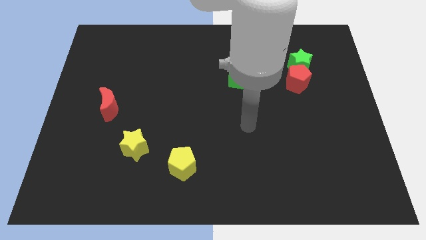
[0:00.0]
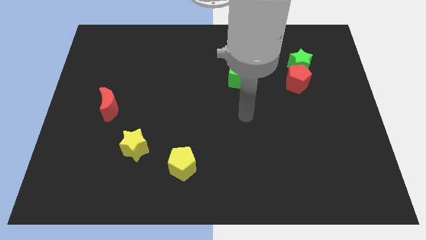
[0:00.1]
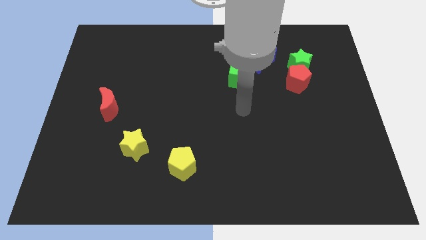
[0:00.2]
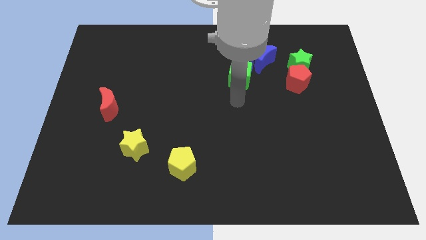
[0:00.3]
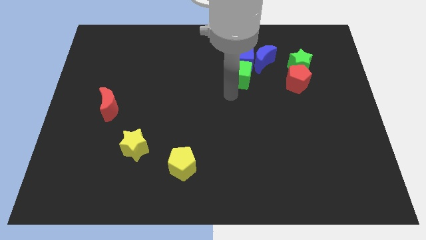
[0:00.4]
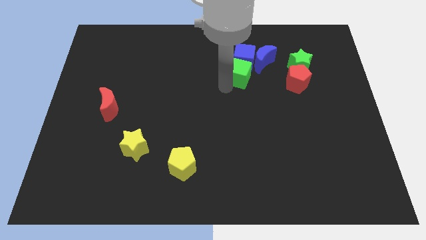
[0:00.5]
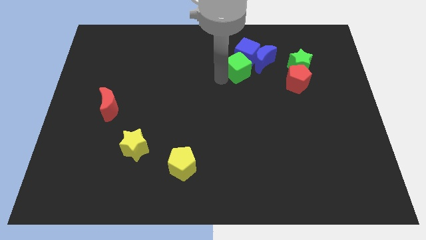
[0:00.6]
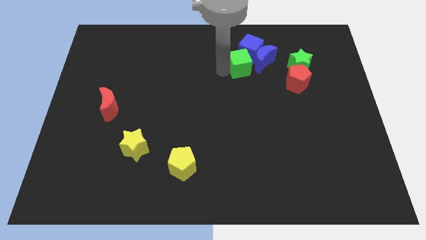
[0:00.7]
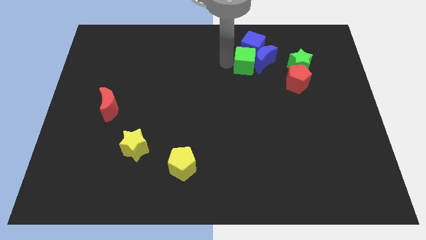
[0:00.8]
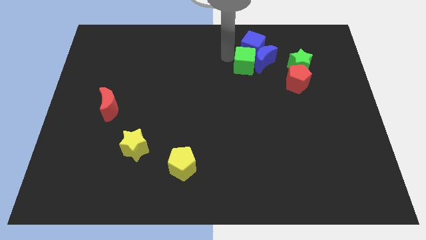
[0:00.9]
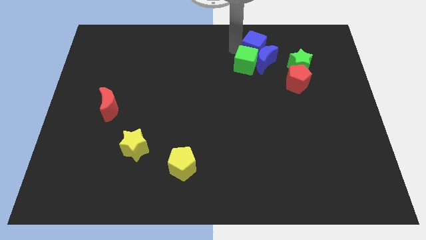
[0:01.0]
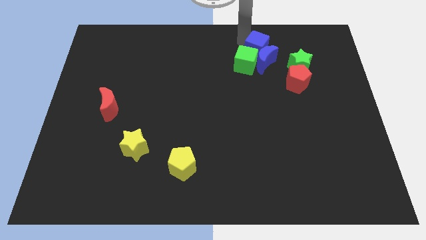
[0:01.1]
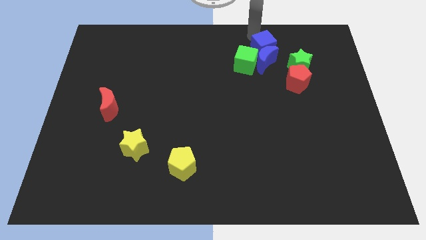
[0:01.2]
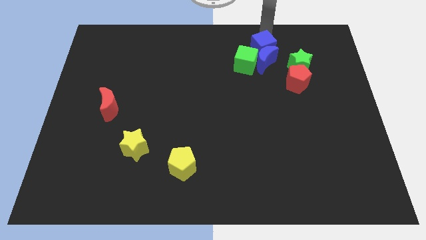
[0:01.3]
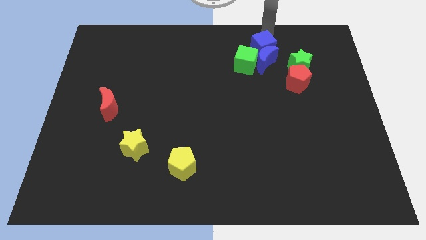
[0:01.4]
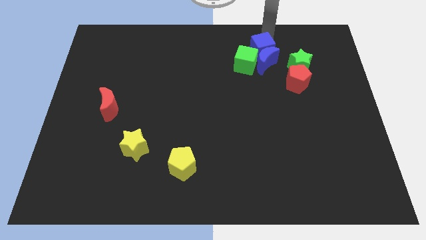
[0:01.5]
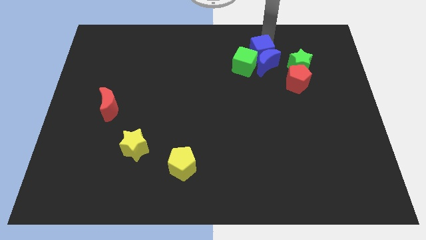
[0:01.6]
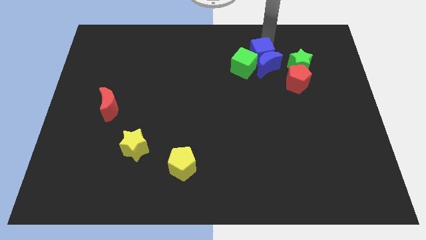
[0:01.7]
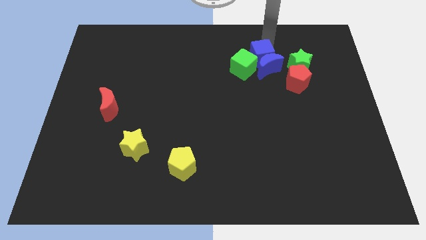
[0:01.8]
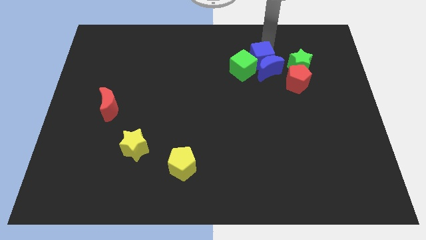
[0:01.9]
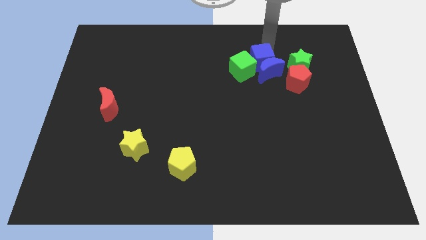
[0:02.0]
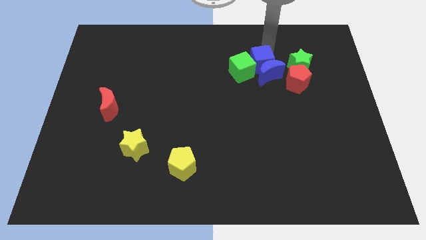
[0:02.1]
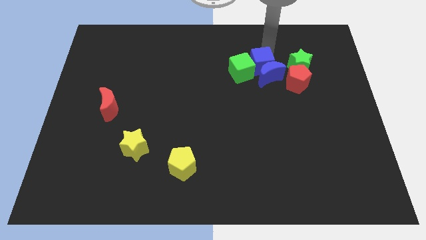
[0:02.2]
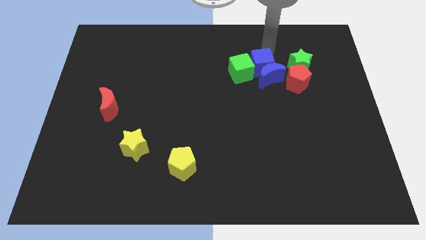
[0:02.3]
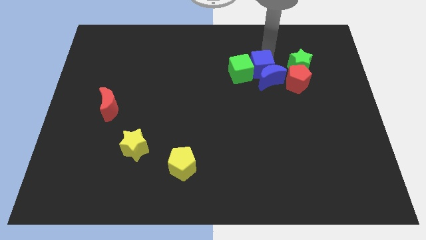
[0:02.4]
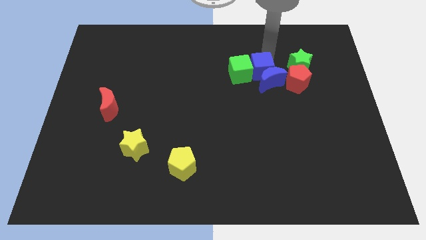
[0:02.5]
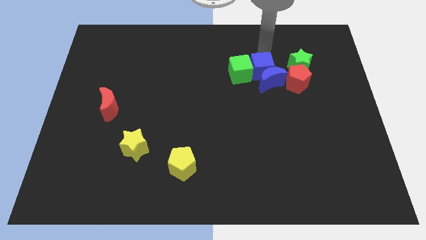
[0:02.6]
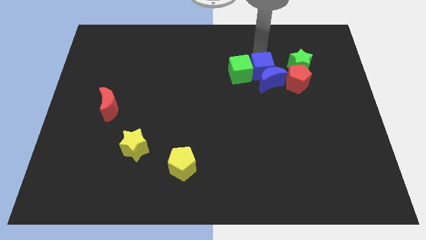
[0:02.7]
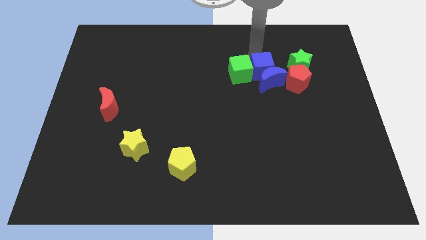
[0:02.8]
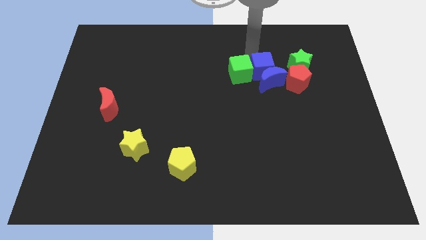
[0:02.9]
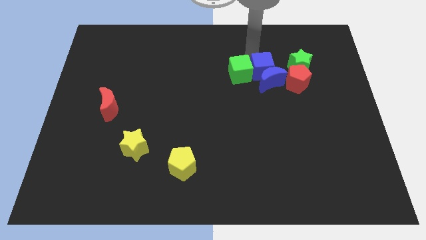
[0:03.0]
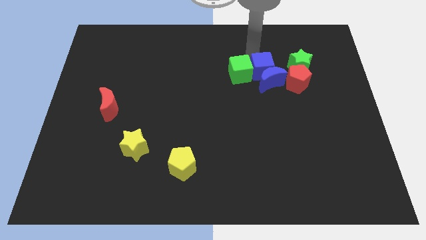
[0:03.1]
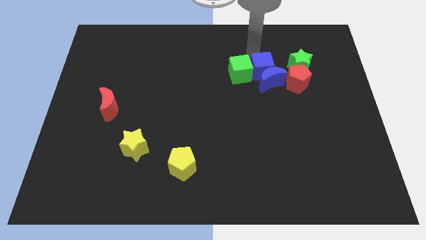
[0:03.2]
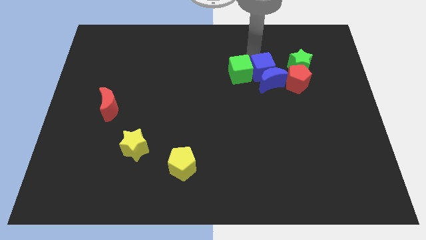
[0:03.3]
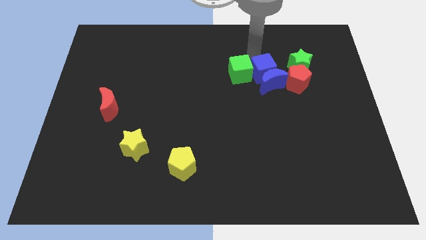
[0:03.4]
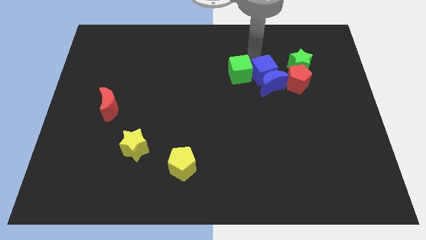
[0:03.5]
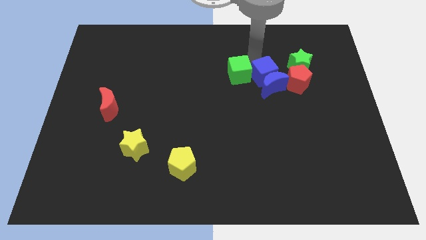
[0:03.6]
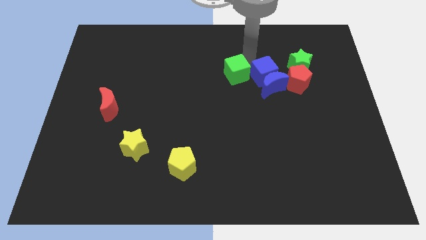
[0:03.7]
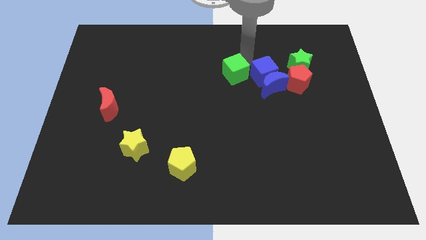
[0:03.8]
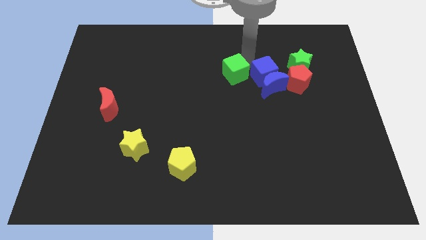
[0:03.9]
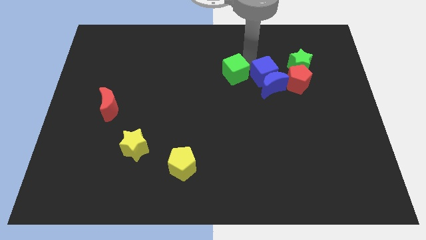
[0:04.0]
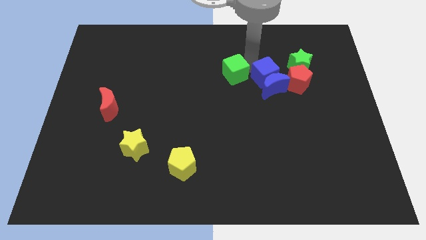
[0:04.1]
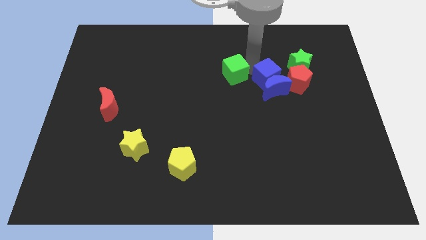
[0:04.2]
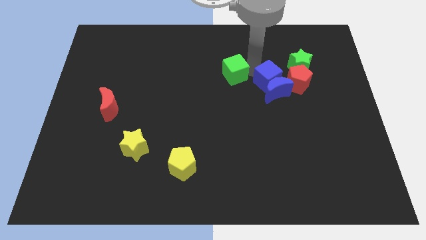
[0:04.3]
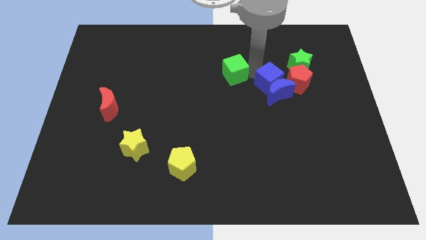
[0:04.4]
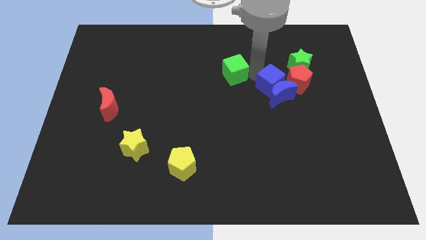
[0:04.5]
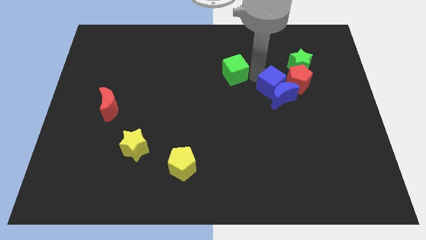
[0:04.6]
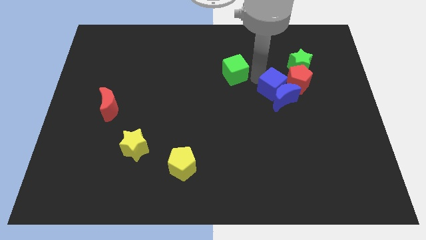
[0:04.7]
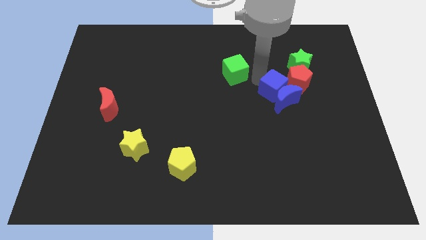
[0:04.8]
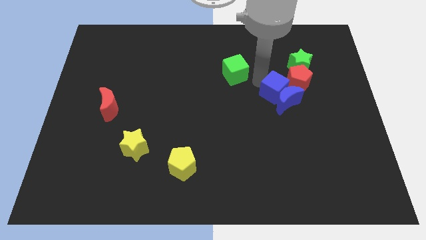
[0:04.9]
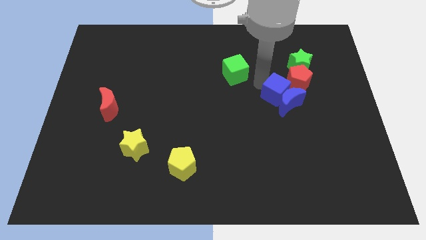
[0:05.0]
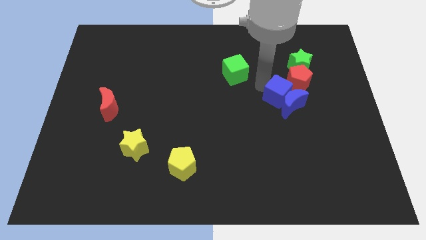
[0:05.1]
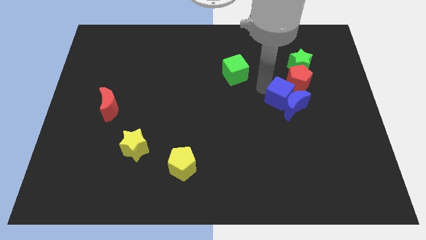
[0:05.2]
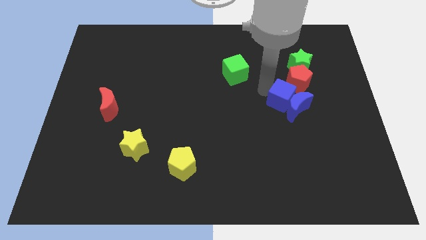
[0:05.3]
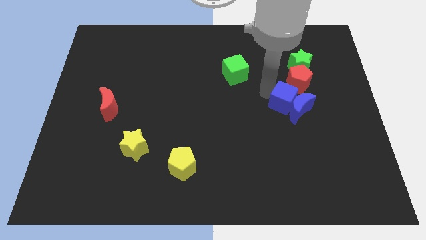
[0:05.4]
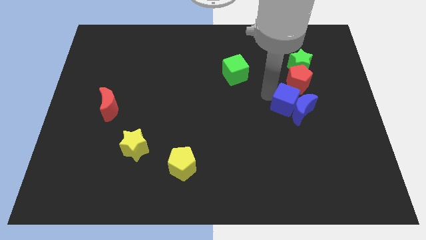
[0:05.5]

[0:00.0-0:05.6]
slide the blue cube to the bottom side of the green star
